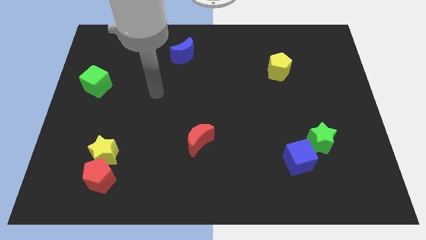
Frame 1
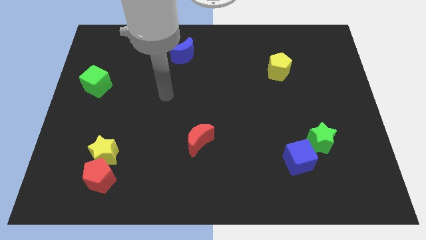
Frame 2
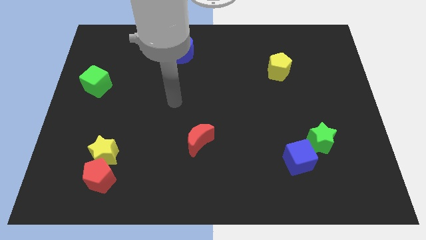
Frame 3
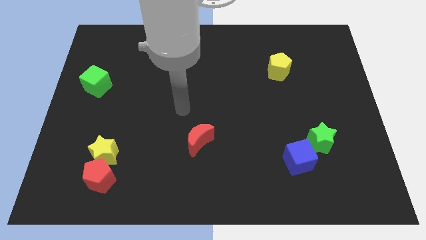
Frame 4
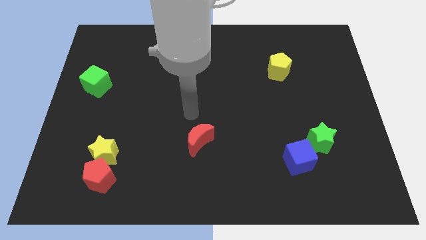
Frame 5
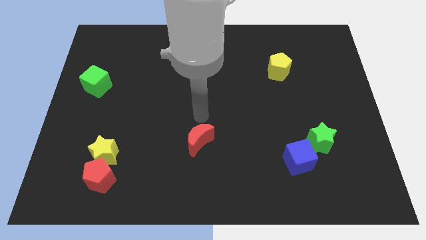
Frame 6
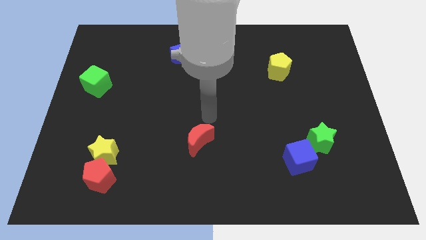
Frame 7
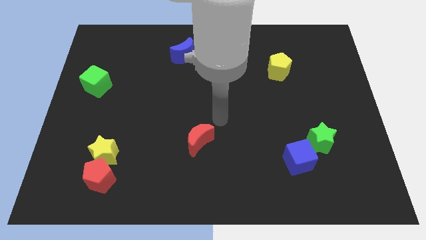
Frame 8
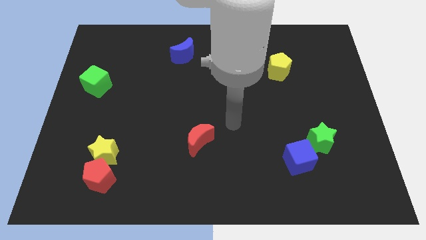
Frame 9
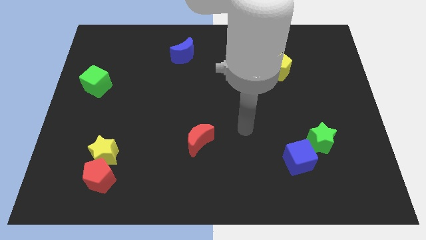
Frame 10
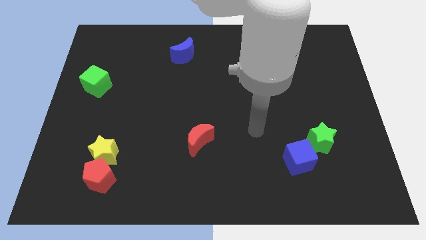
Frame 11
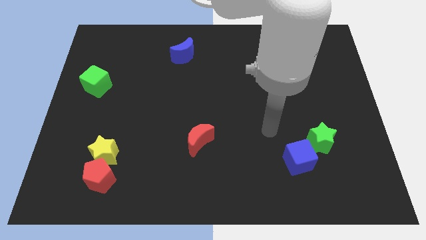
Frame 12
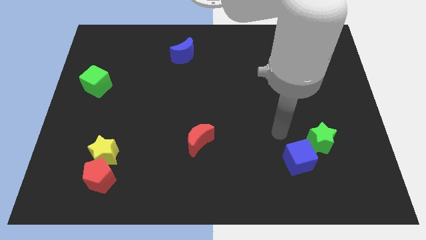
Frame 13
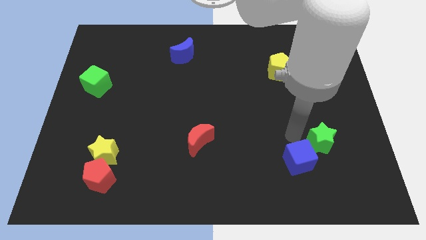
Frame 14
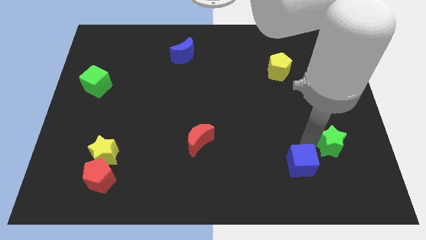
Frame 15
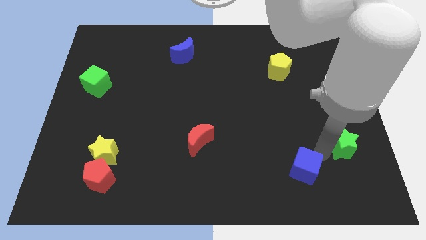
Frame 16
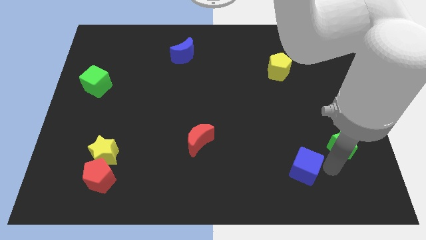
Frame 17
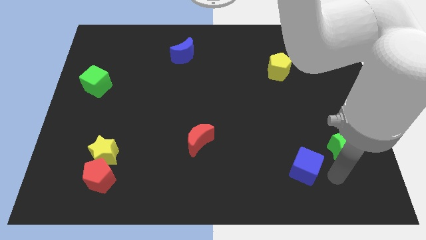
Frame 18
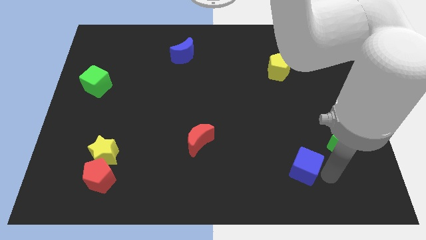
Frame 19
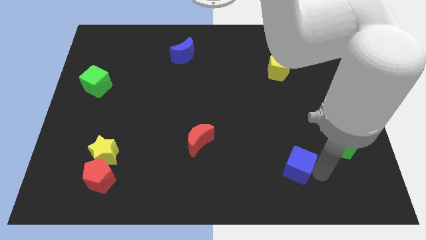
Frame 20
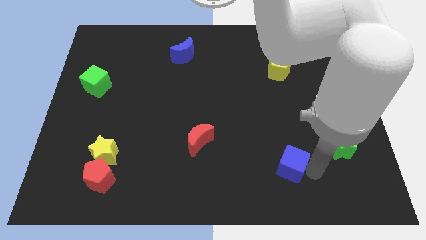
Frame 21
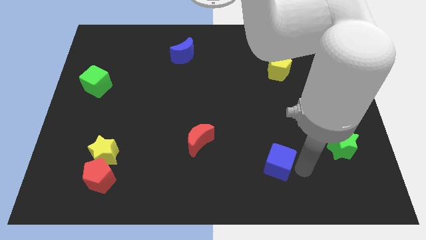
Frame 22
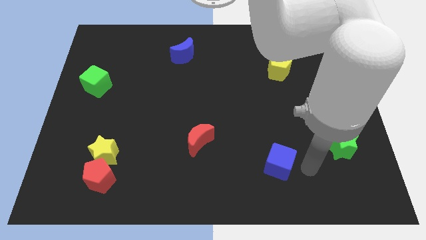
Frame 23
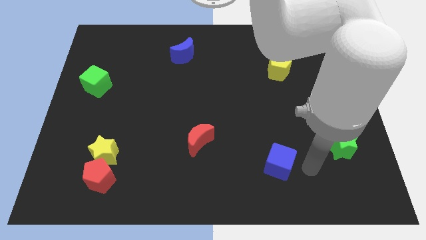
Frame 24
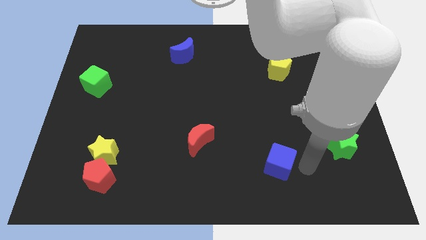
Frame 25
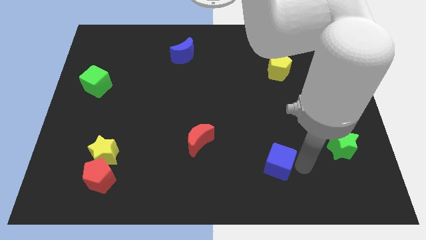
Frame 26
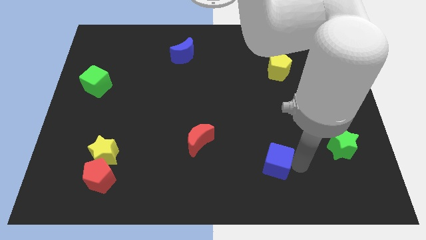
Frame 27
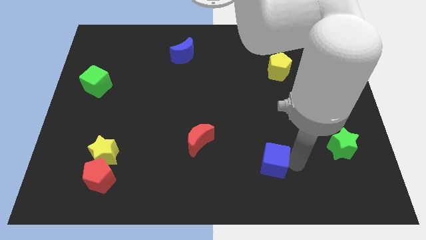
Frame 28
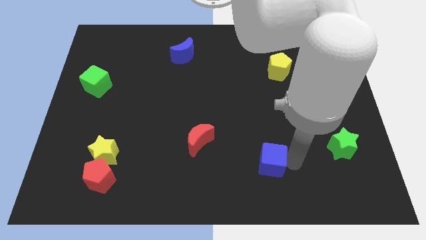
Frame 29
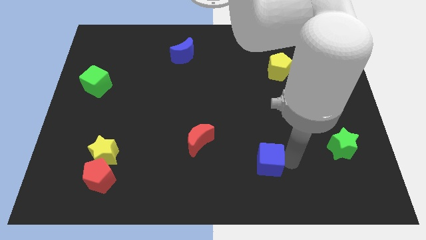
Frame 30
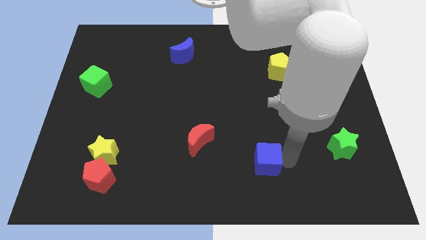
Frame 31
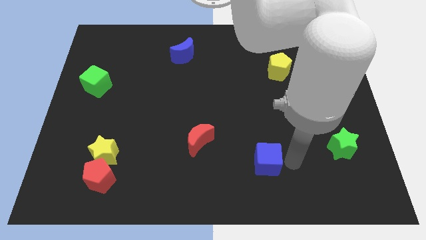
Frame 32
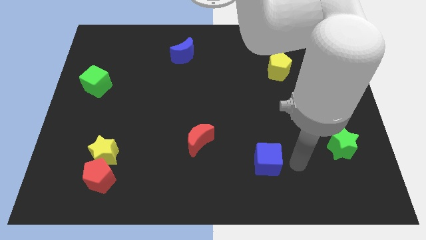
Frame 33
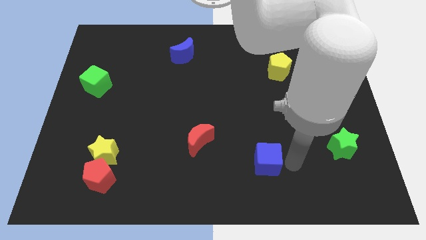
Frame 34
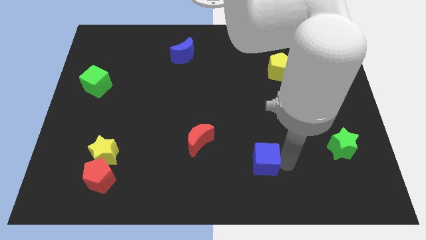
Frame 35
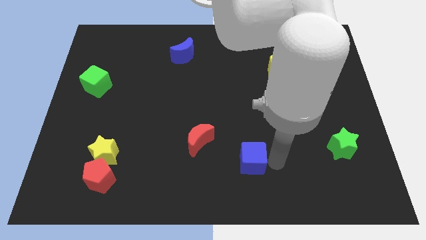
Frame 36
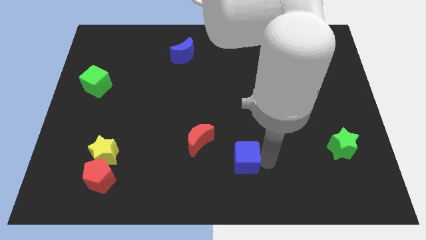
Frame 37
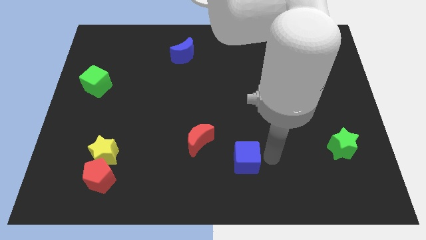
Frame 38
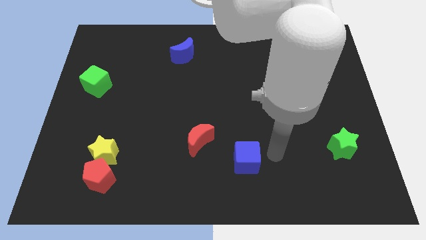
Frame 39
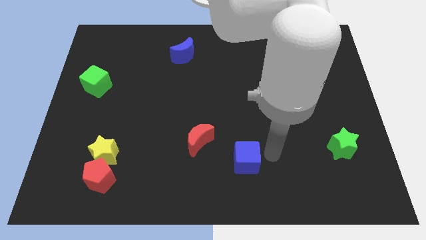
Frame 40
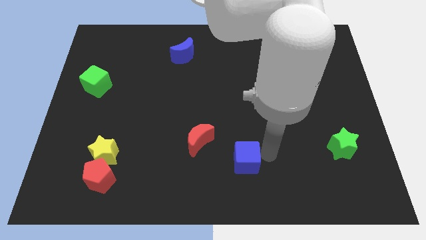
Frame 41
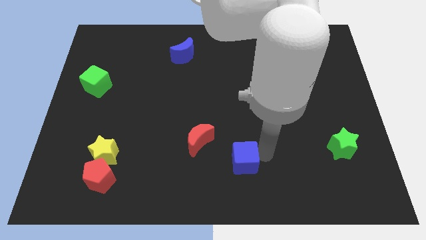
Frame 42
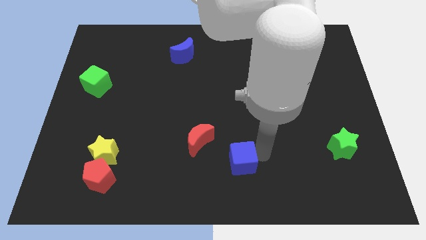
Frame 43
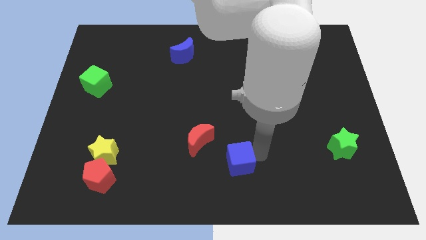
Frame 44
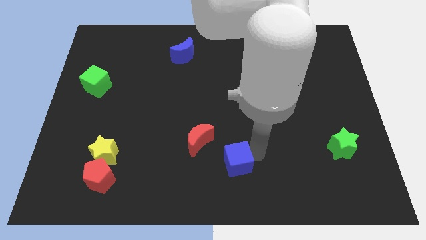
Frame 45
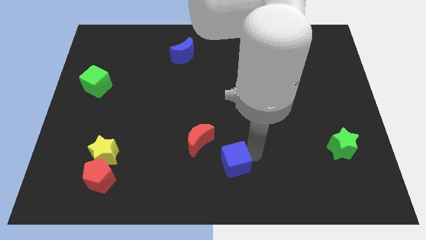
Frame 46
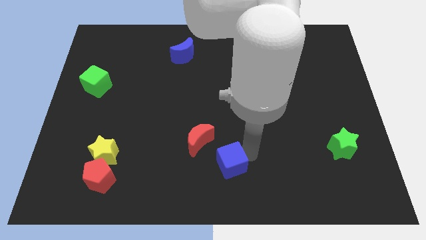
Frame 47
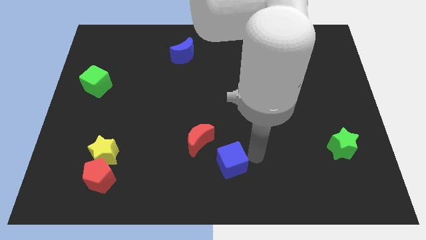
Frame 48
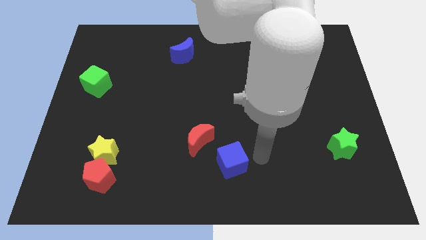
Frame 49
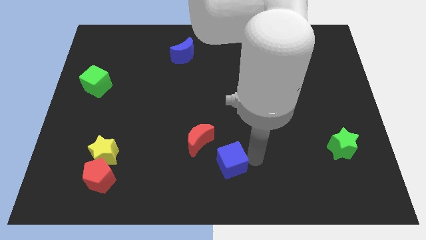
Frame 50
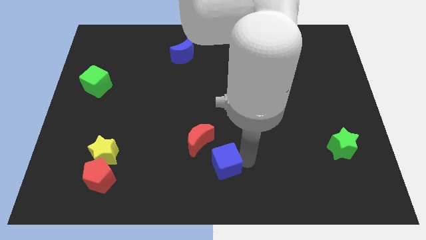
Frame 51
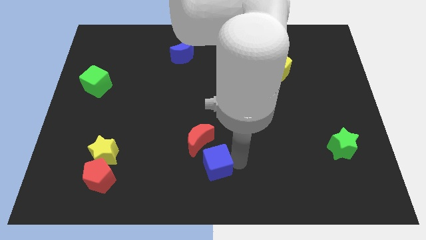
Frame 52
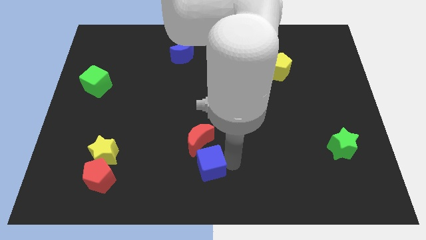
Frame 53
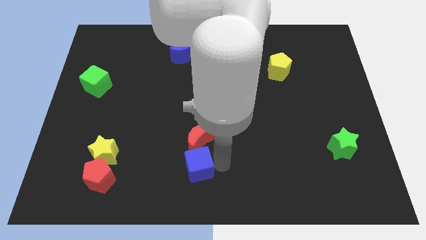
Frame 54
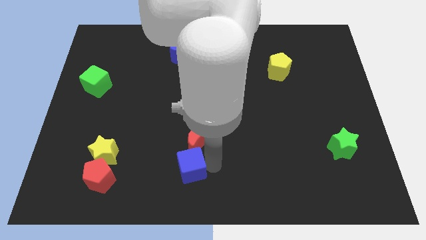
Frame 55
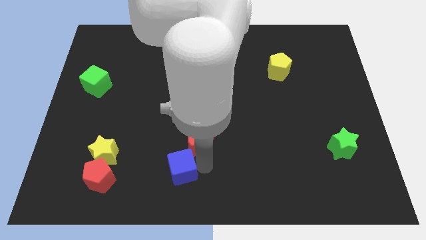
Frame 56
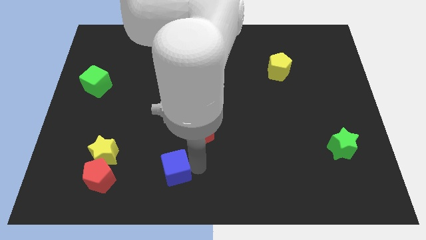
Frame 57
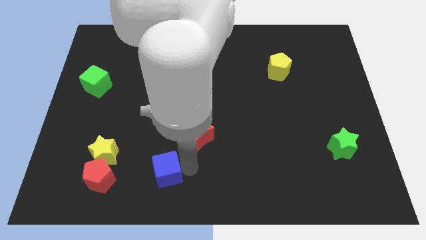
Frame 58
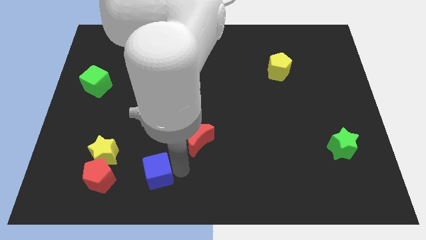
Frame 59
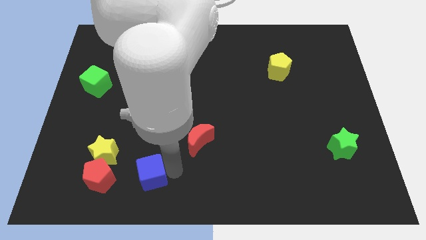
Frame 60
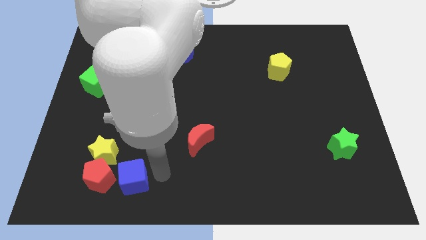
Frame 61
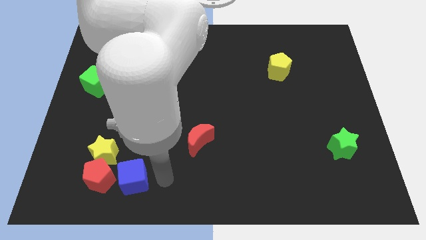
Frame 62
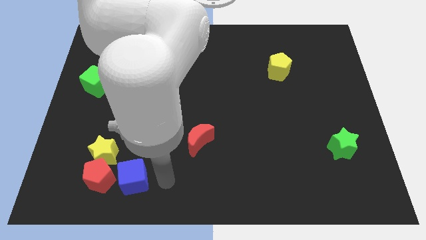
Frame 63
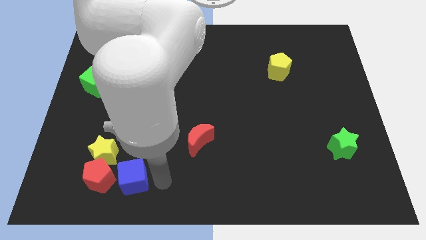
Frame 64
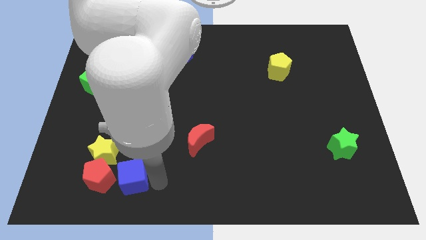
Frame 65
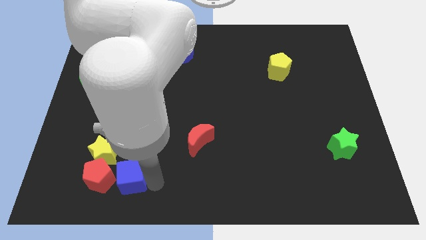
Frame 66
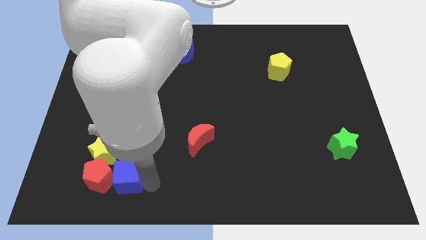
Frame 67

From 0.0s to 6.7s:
move the blue cube close to the red pentagon

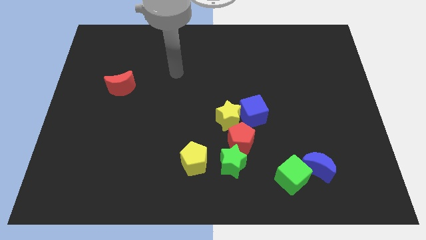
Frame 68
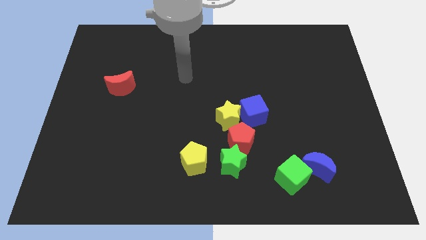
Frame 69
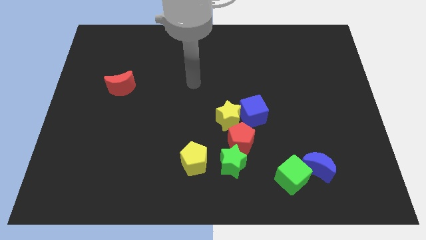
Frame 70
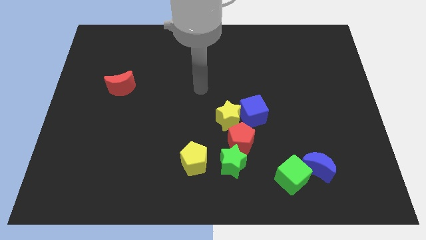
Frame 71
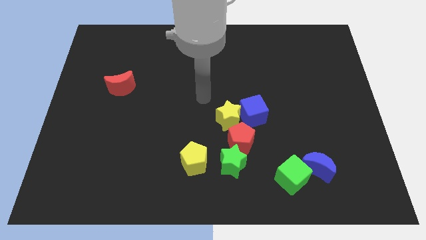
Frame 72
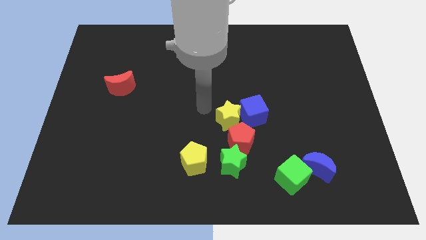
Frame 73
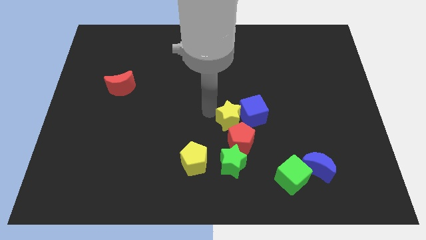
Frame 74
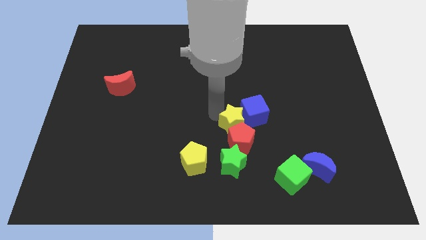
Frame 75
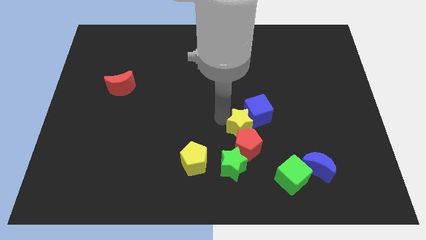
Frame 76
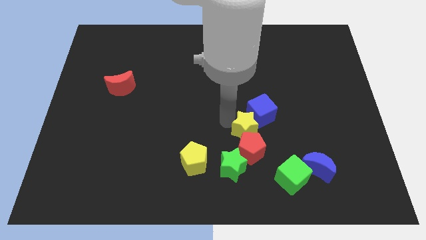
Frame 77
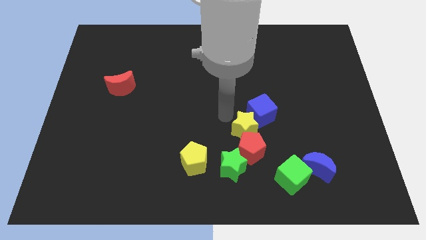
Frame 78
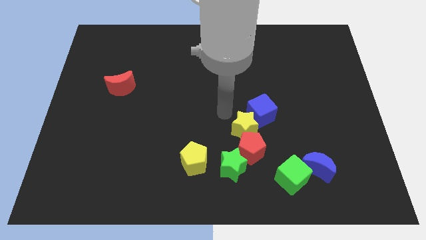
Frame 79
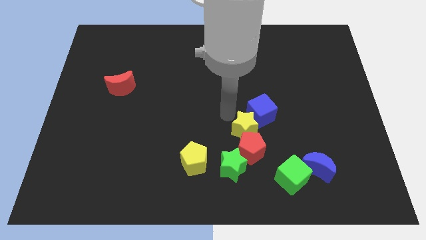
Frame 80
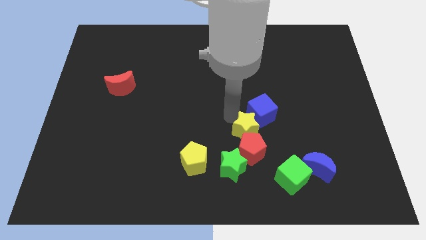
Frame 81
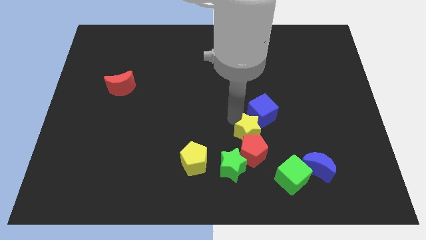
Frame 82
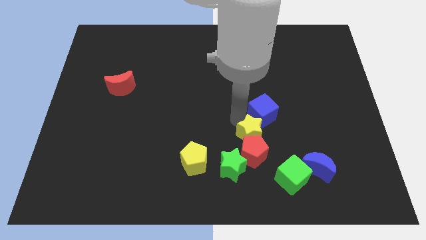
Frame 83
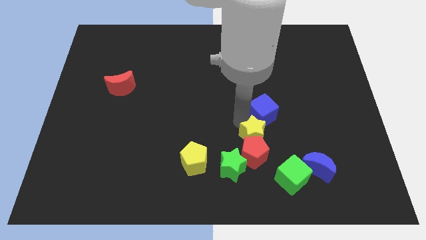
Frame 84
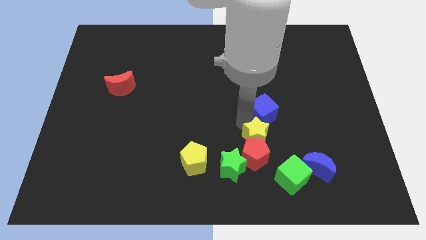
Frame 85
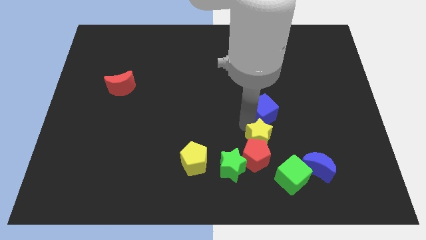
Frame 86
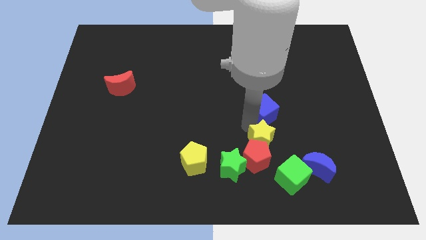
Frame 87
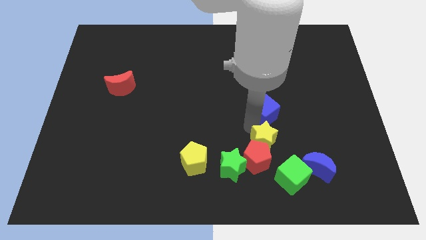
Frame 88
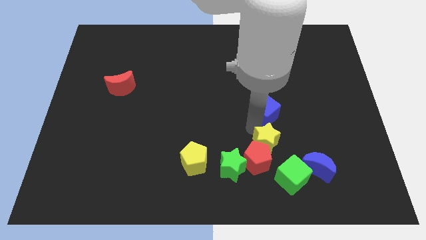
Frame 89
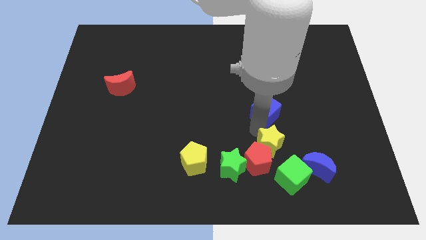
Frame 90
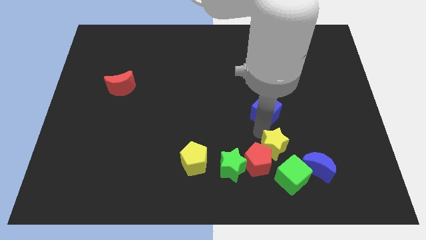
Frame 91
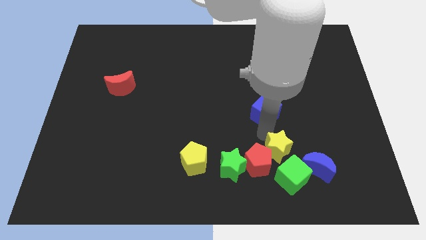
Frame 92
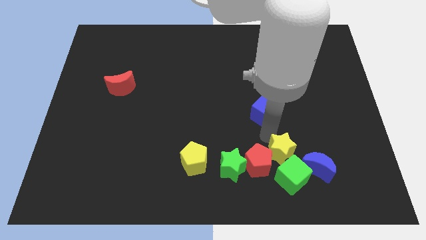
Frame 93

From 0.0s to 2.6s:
move the yellow star towards the green cube
